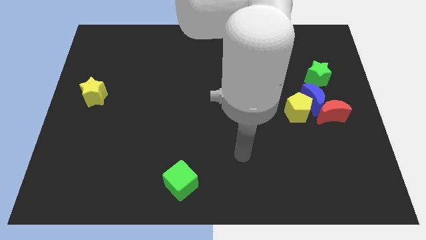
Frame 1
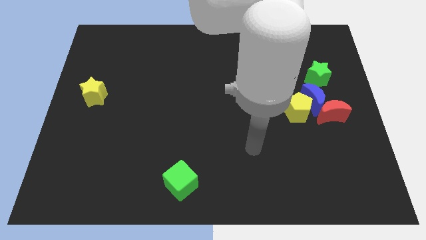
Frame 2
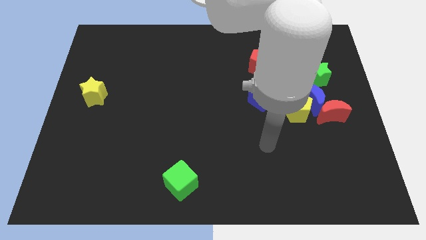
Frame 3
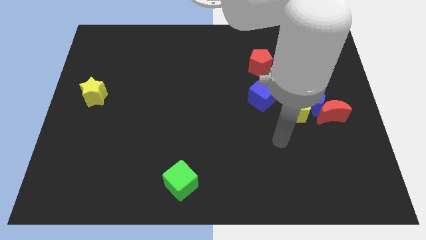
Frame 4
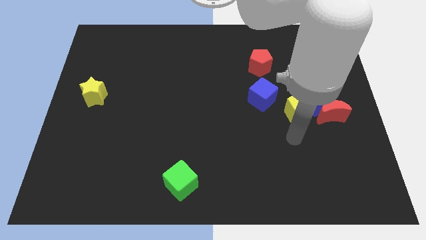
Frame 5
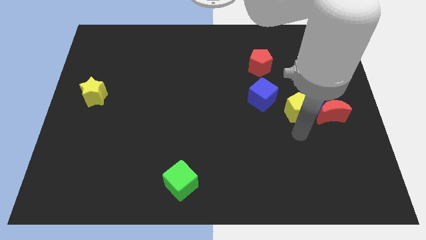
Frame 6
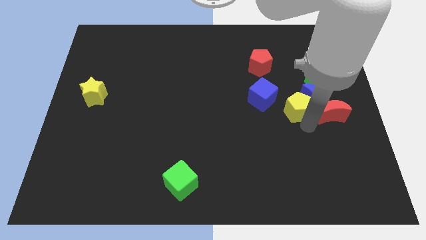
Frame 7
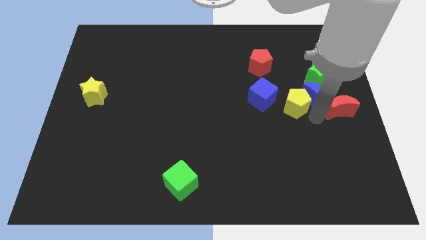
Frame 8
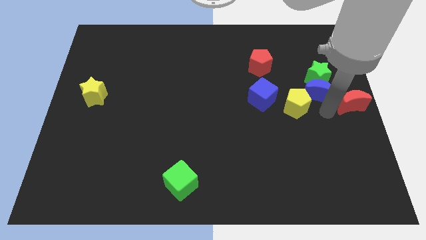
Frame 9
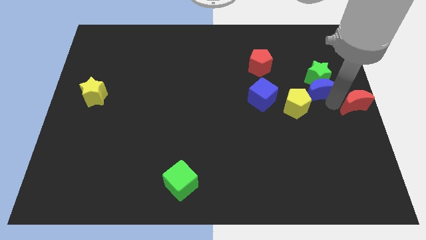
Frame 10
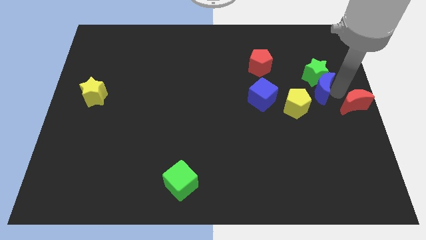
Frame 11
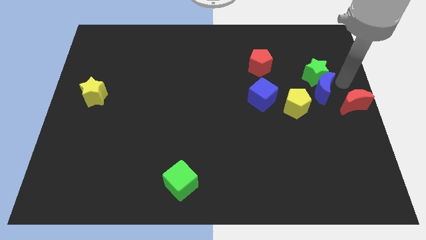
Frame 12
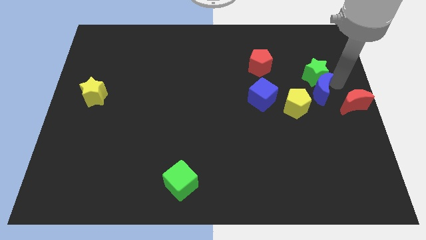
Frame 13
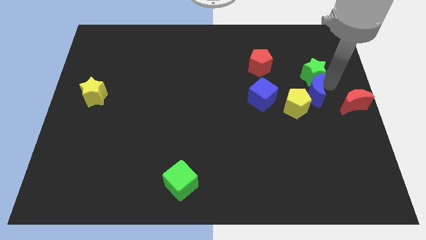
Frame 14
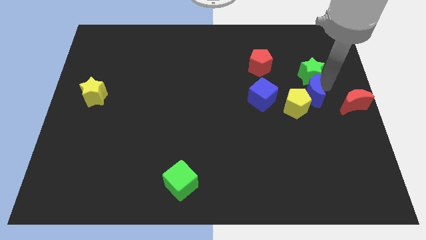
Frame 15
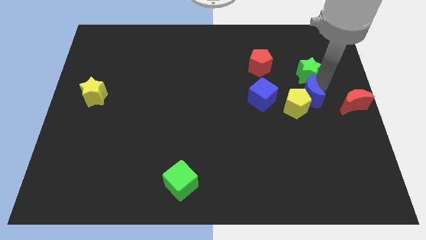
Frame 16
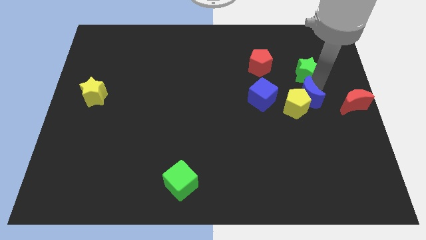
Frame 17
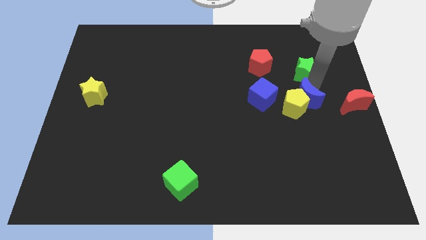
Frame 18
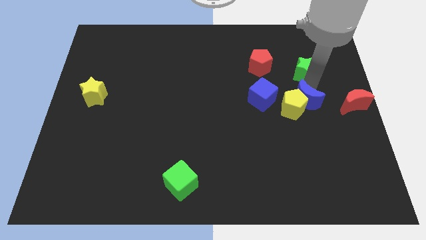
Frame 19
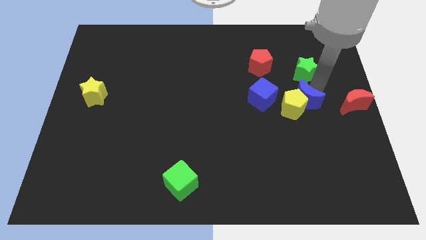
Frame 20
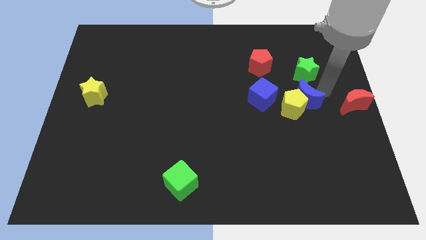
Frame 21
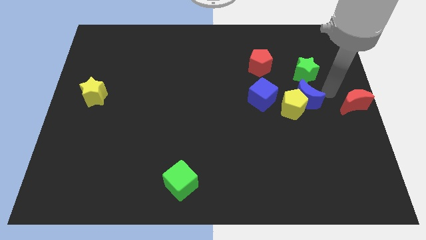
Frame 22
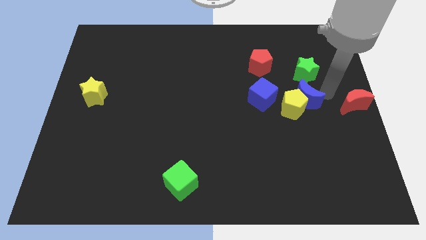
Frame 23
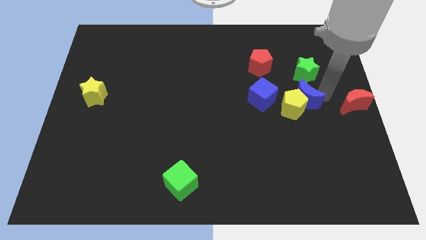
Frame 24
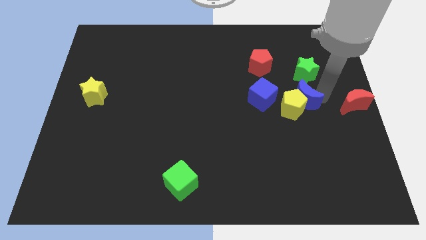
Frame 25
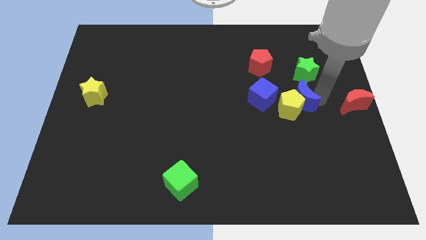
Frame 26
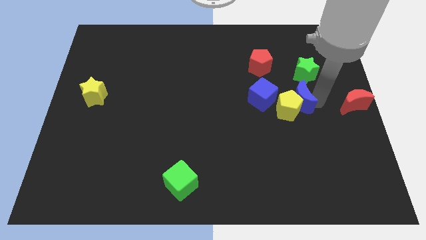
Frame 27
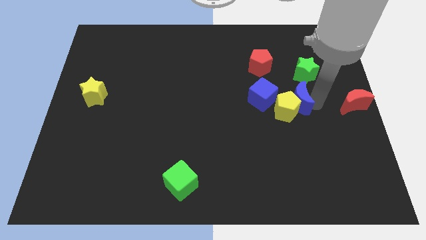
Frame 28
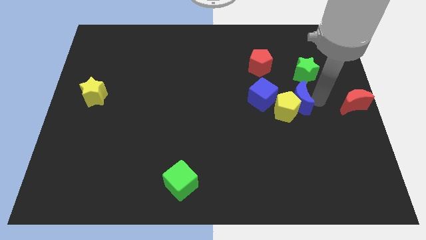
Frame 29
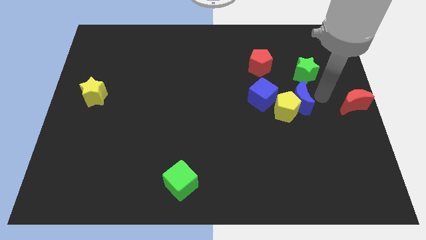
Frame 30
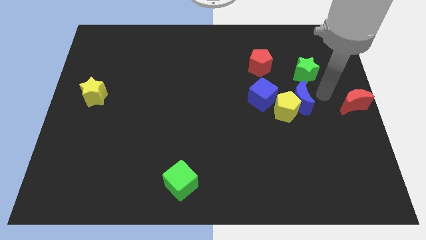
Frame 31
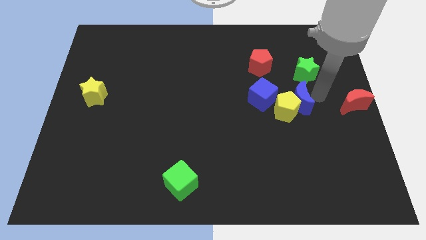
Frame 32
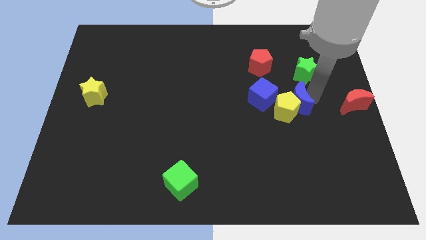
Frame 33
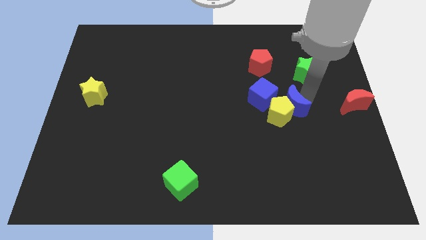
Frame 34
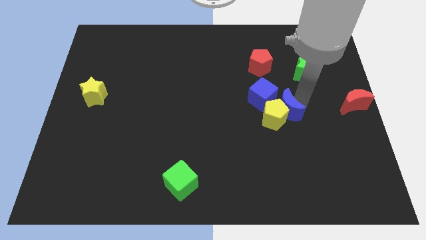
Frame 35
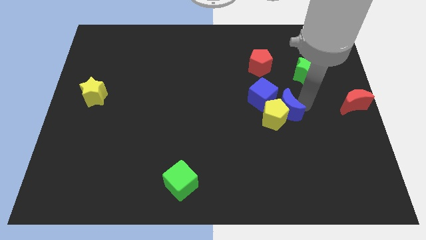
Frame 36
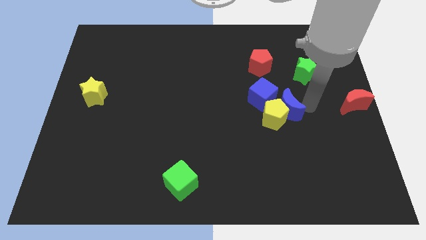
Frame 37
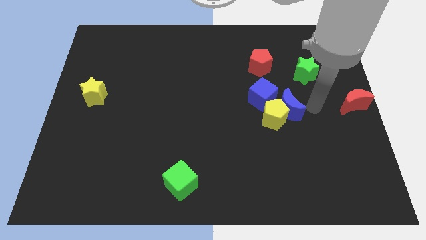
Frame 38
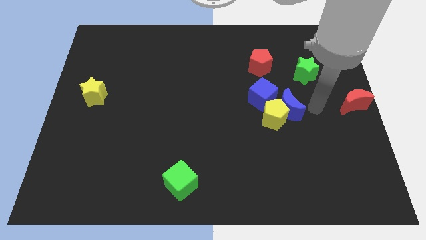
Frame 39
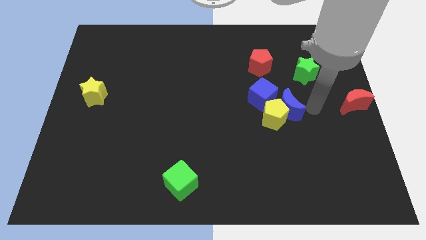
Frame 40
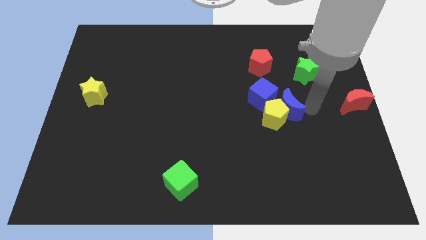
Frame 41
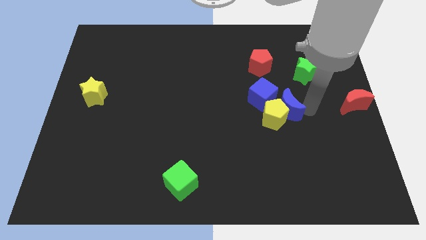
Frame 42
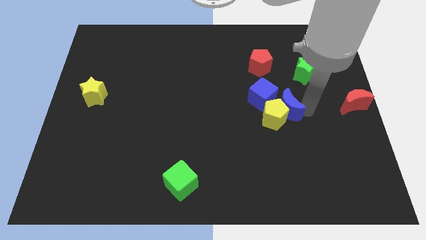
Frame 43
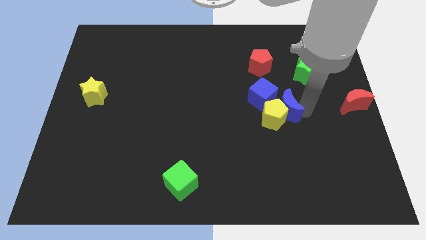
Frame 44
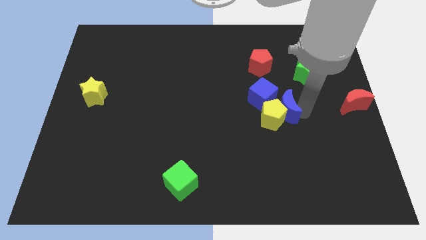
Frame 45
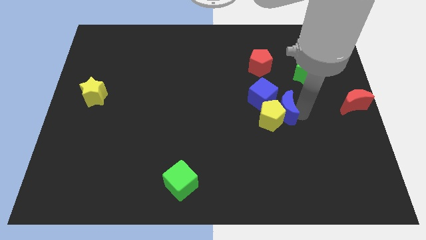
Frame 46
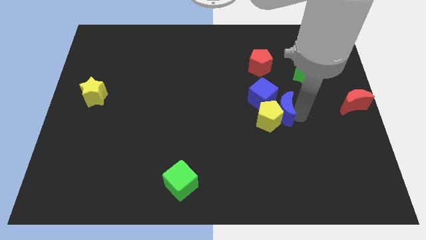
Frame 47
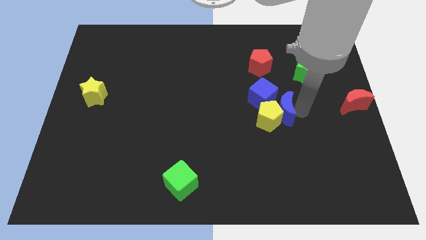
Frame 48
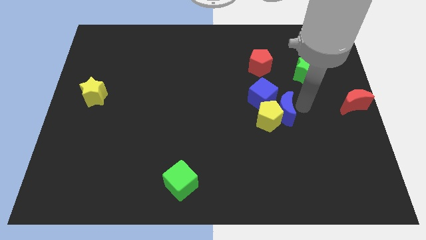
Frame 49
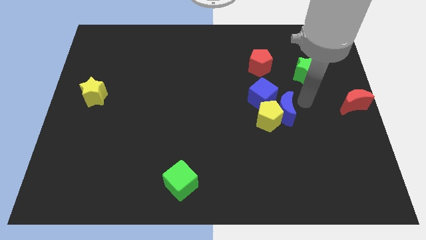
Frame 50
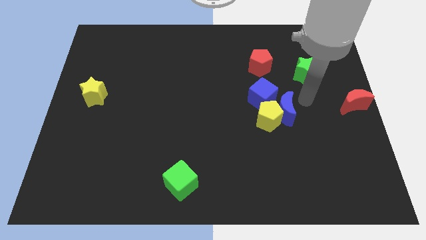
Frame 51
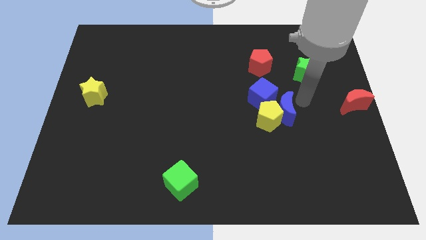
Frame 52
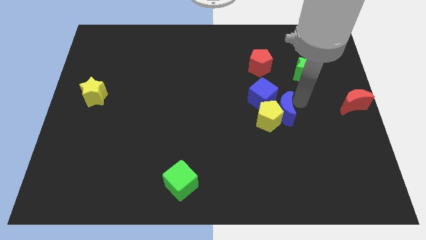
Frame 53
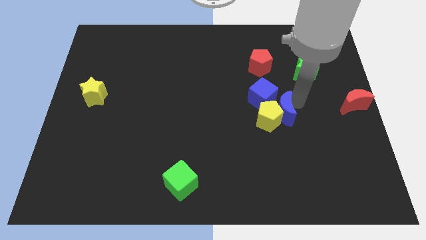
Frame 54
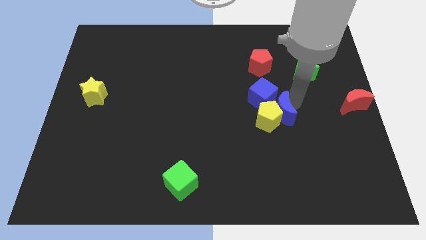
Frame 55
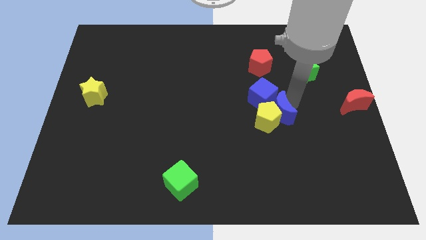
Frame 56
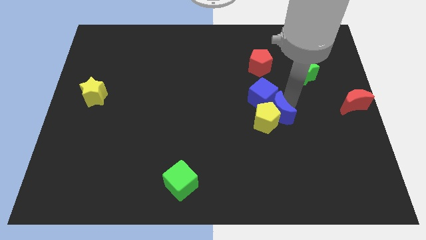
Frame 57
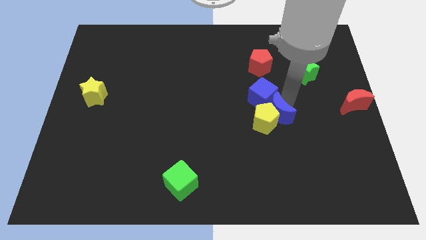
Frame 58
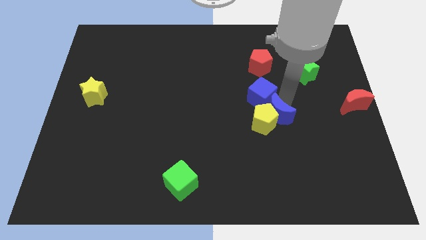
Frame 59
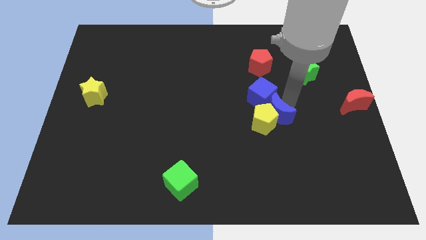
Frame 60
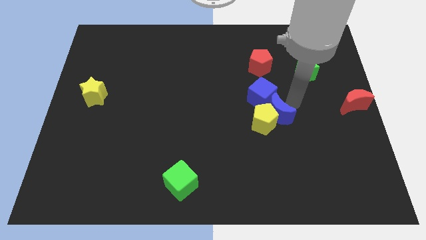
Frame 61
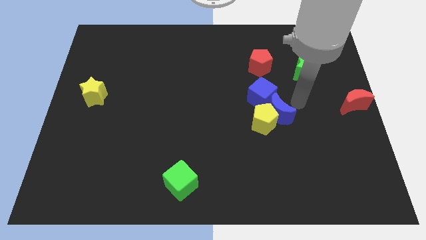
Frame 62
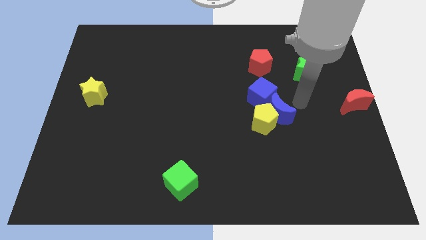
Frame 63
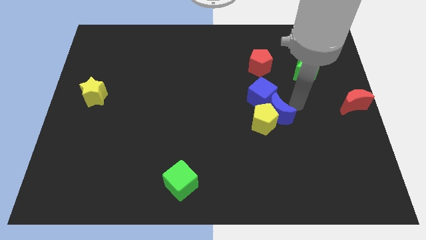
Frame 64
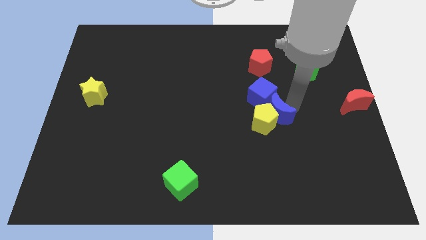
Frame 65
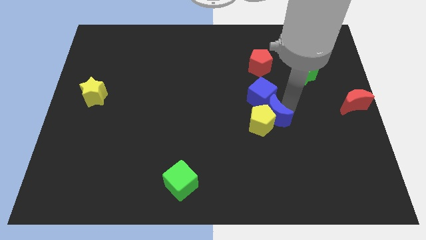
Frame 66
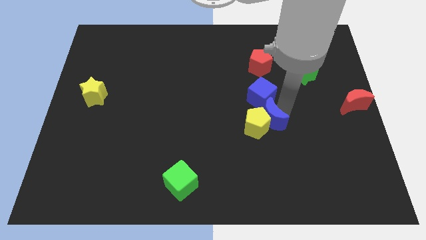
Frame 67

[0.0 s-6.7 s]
move the blue moon away from the group of blocks

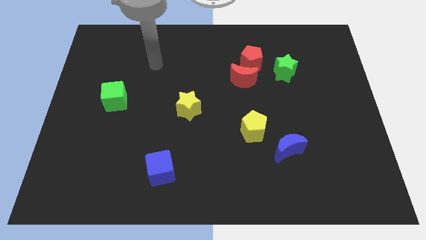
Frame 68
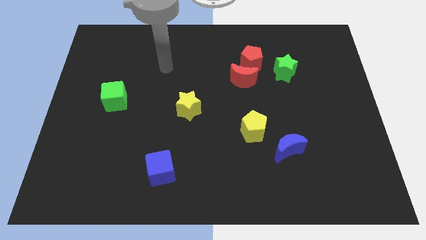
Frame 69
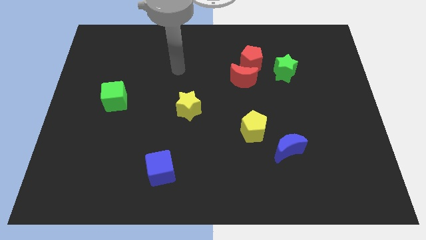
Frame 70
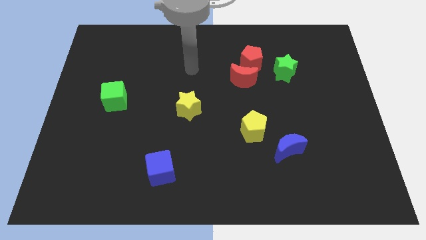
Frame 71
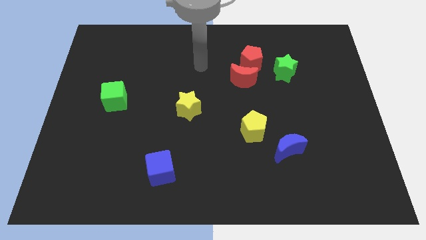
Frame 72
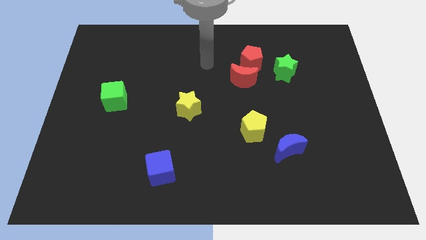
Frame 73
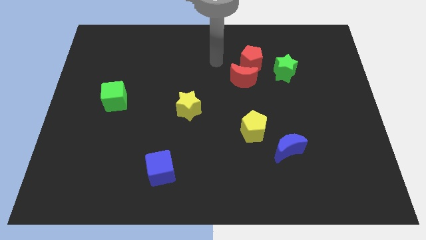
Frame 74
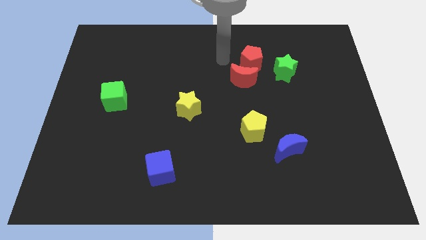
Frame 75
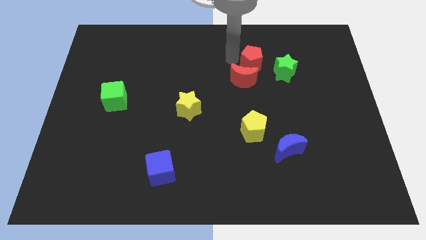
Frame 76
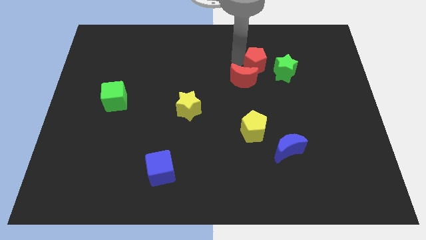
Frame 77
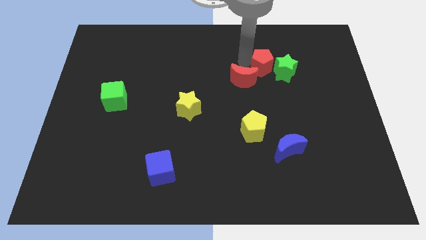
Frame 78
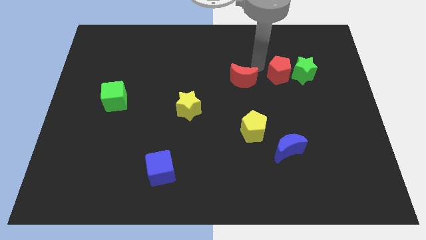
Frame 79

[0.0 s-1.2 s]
separate the red moon from the red pentagon

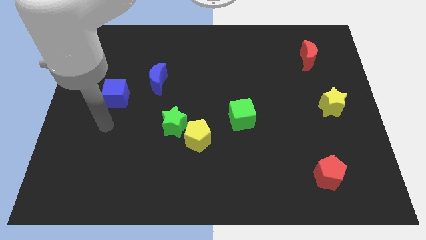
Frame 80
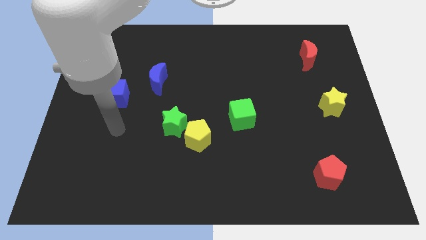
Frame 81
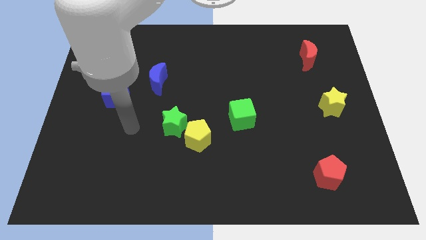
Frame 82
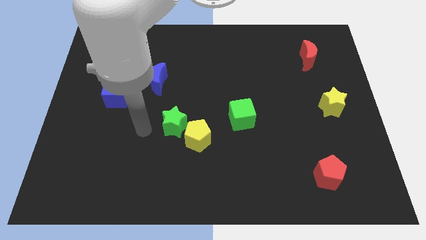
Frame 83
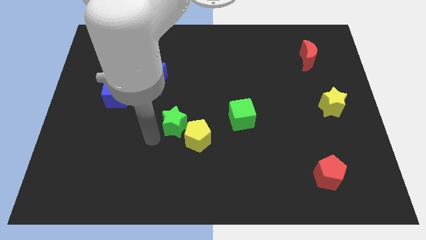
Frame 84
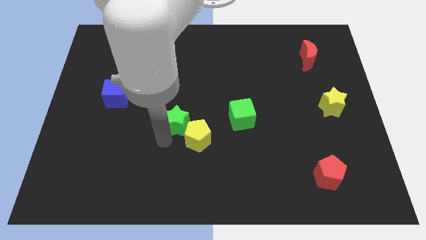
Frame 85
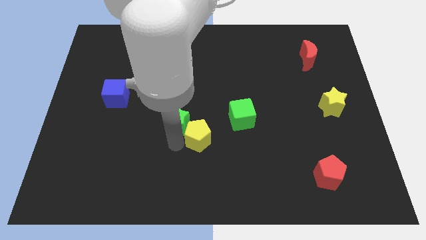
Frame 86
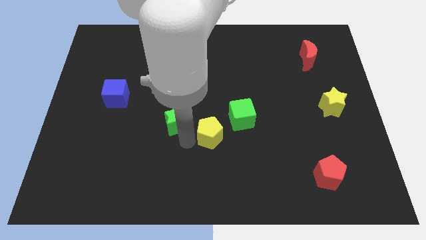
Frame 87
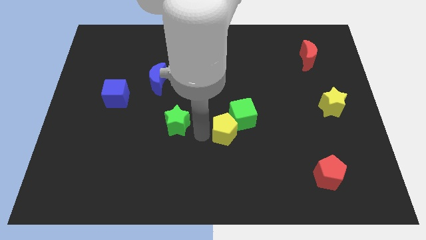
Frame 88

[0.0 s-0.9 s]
move the green star away from the yellow pentagon

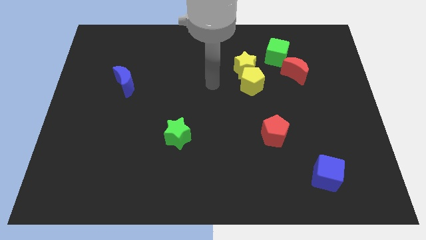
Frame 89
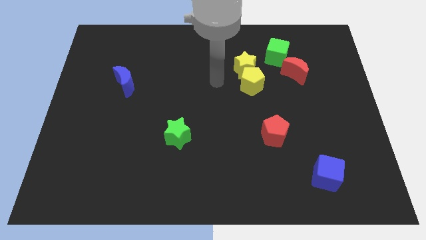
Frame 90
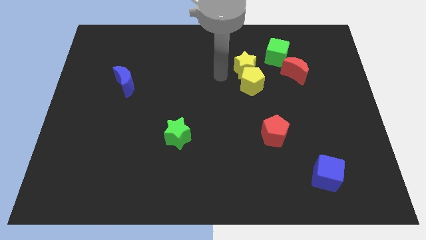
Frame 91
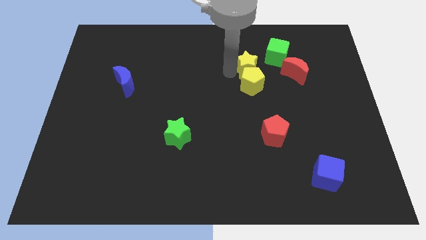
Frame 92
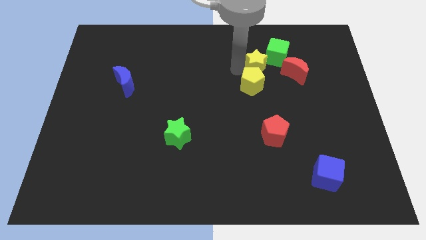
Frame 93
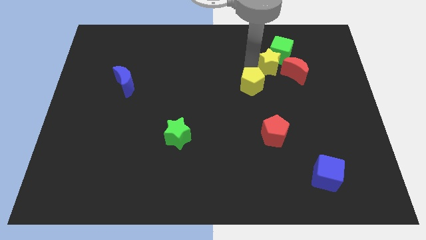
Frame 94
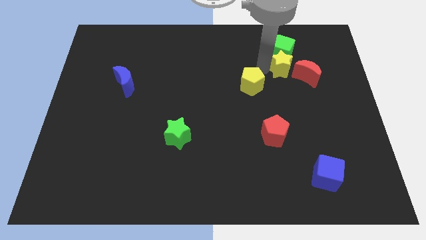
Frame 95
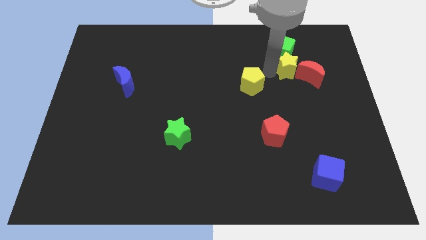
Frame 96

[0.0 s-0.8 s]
pull the yellow pentagon apart from the yellow star

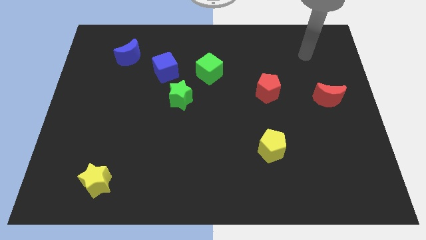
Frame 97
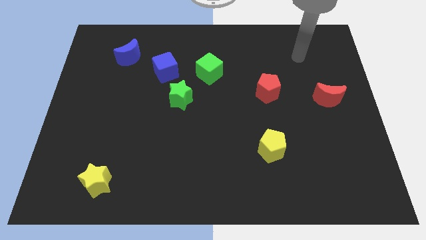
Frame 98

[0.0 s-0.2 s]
move the blue cube away from the green star
